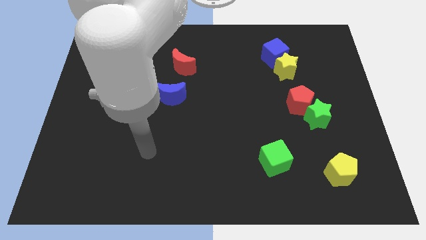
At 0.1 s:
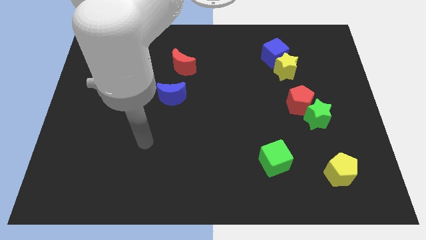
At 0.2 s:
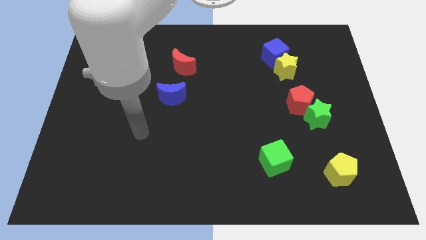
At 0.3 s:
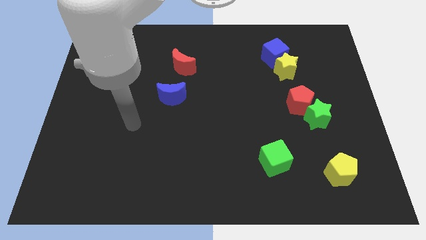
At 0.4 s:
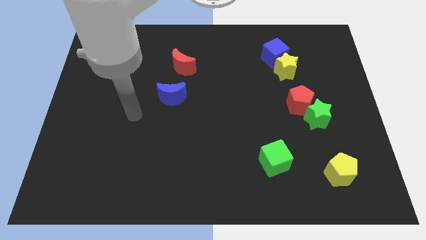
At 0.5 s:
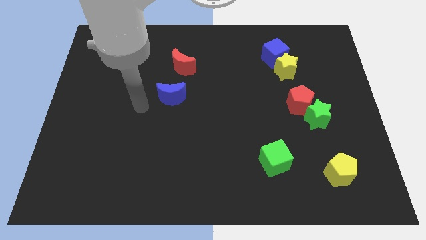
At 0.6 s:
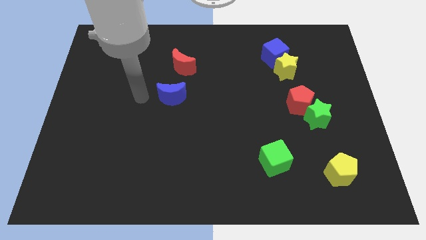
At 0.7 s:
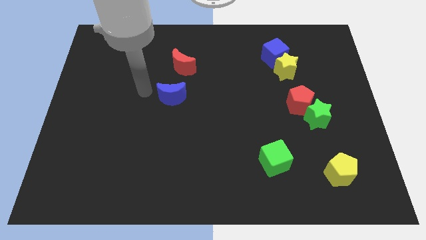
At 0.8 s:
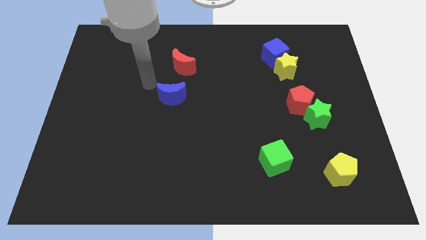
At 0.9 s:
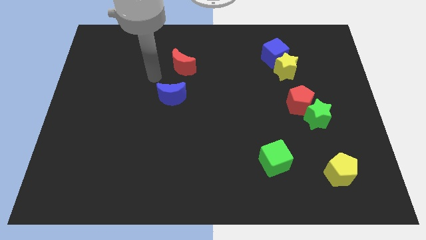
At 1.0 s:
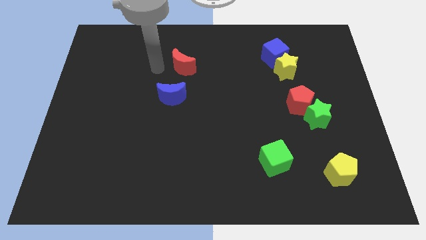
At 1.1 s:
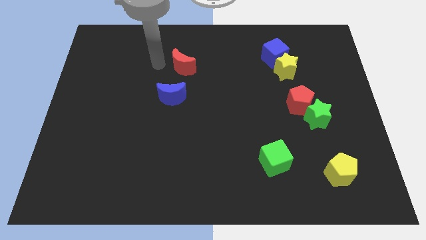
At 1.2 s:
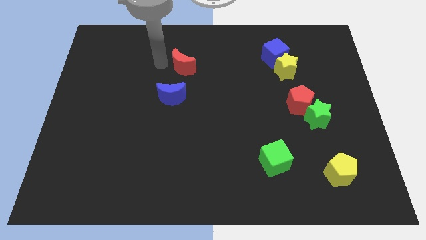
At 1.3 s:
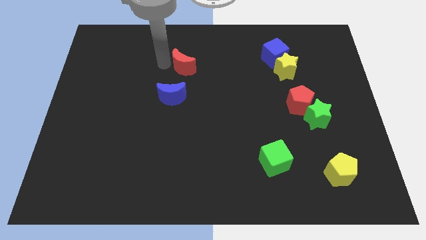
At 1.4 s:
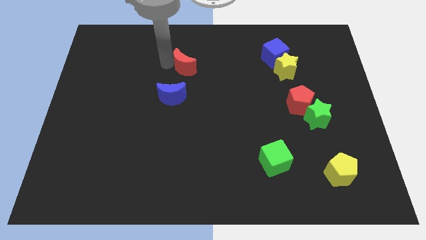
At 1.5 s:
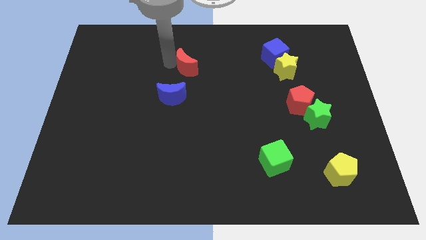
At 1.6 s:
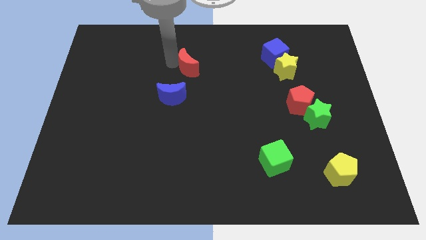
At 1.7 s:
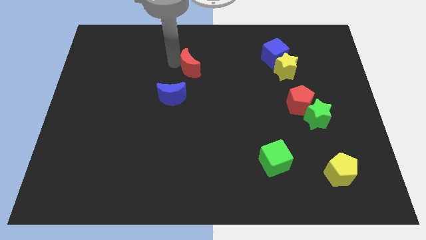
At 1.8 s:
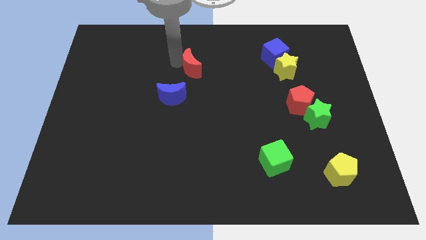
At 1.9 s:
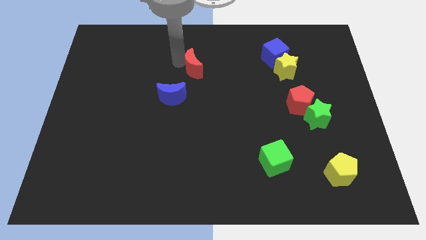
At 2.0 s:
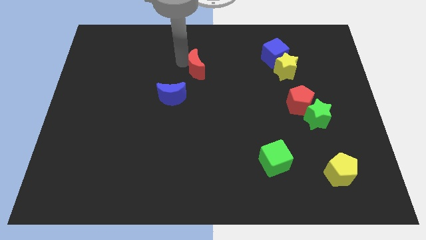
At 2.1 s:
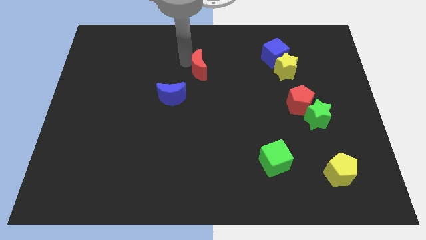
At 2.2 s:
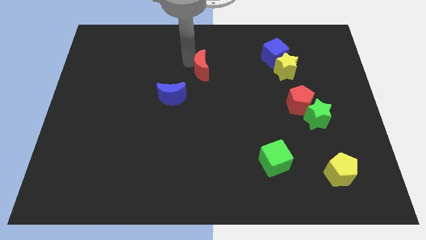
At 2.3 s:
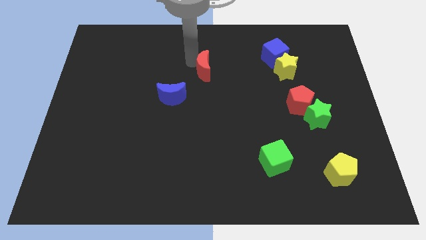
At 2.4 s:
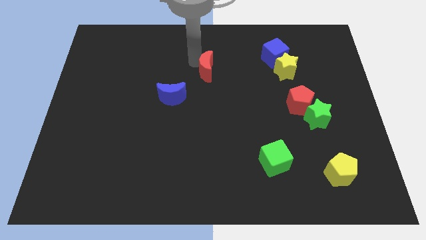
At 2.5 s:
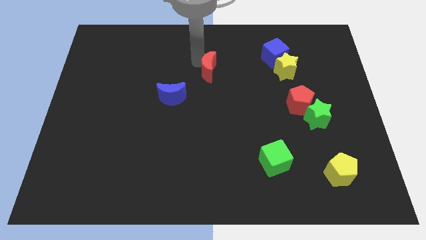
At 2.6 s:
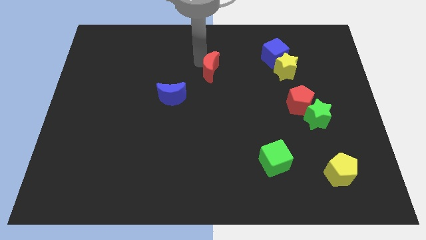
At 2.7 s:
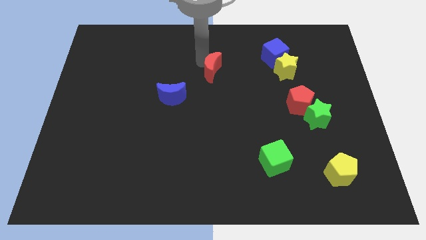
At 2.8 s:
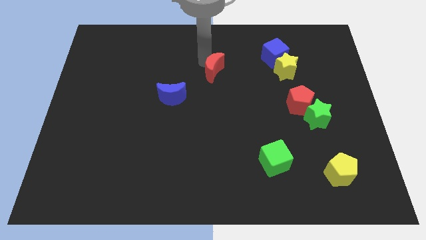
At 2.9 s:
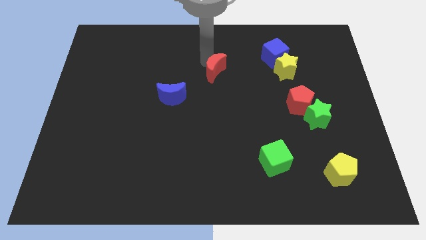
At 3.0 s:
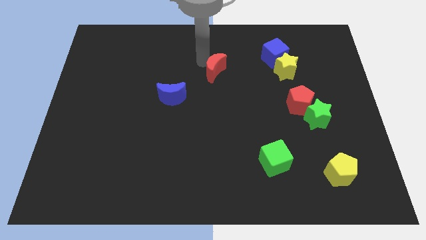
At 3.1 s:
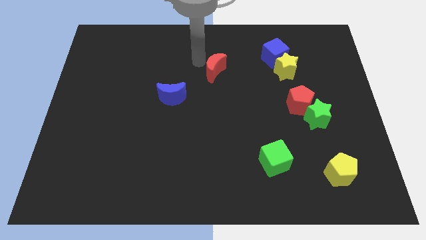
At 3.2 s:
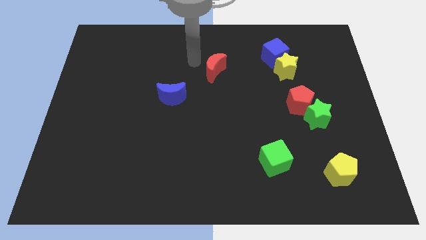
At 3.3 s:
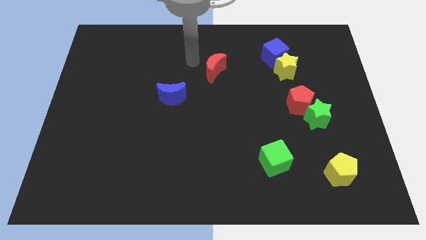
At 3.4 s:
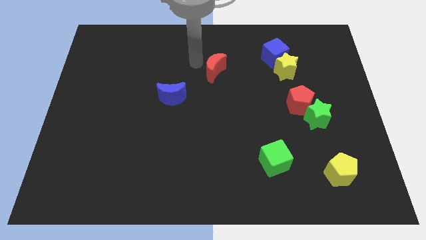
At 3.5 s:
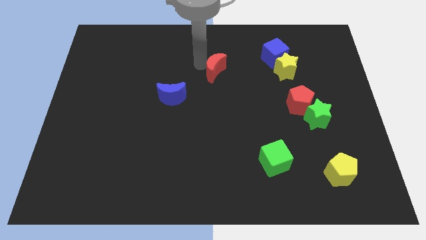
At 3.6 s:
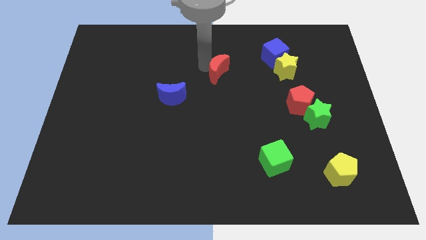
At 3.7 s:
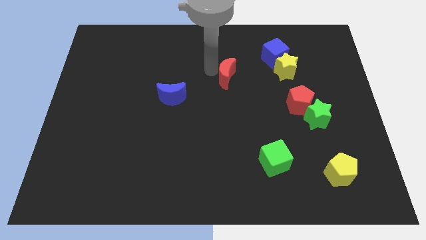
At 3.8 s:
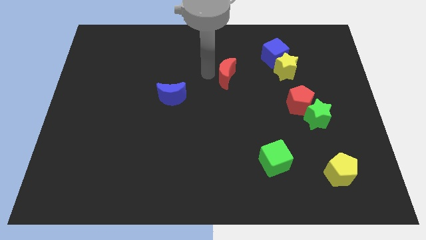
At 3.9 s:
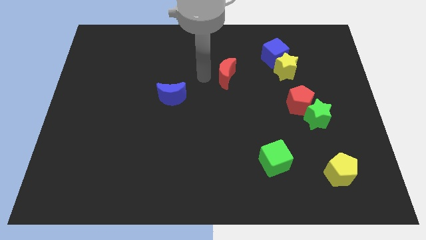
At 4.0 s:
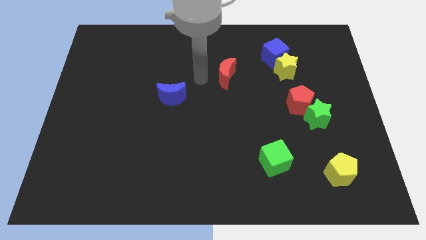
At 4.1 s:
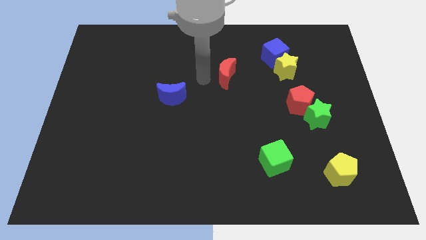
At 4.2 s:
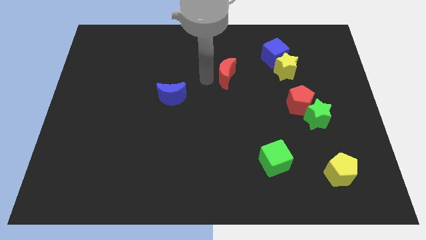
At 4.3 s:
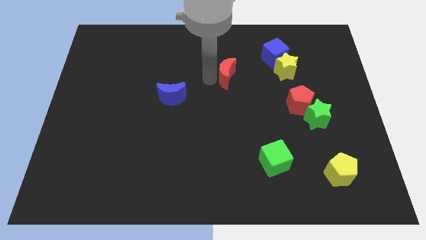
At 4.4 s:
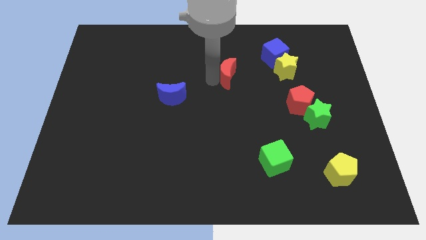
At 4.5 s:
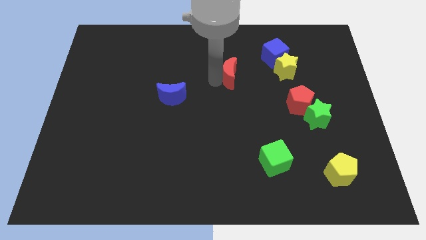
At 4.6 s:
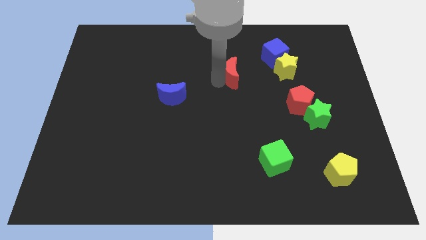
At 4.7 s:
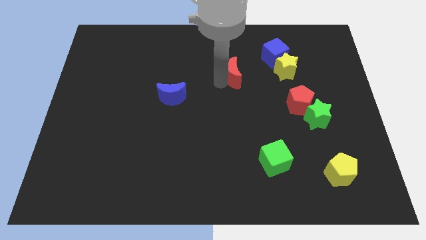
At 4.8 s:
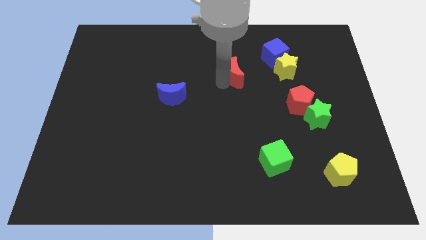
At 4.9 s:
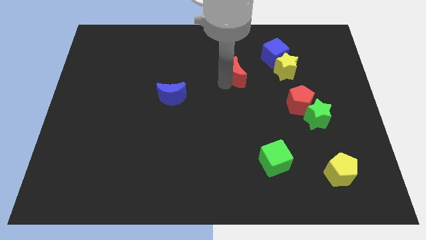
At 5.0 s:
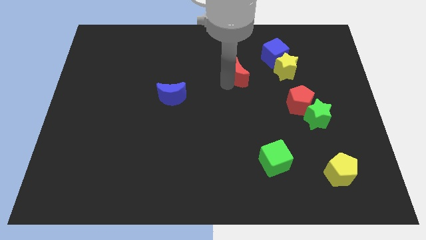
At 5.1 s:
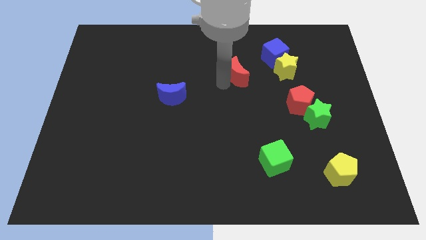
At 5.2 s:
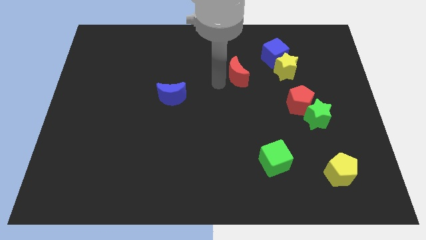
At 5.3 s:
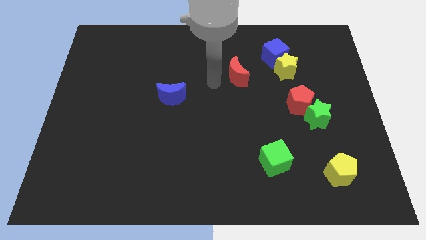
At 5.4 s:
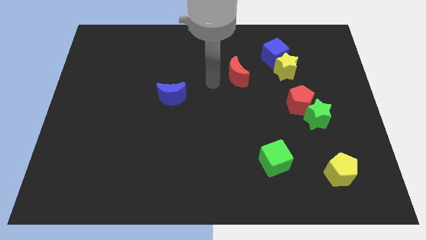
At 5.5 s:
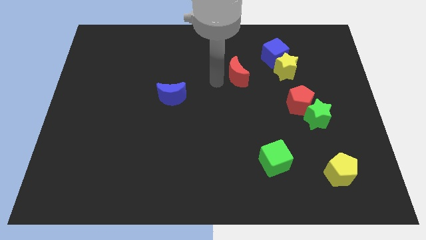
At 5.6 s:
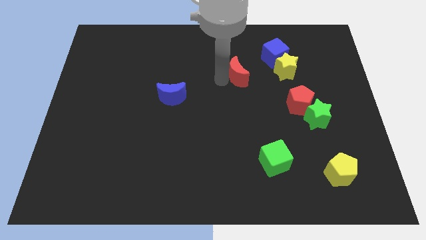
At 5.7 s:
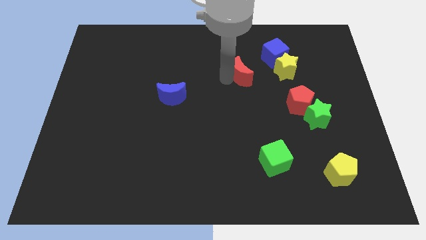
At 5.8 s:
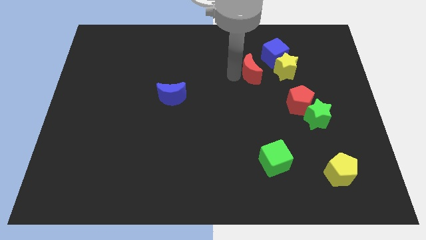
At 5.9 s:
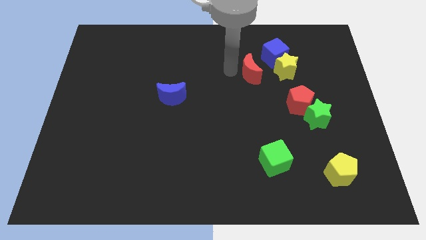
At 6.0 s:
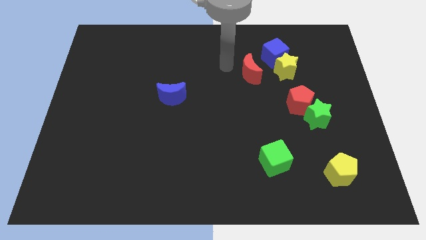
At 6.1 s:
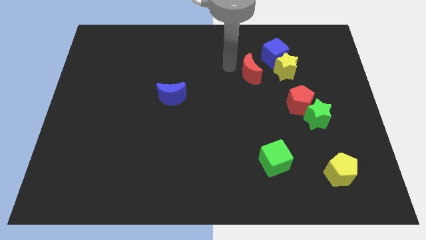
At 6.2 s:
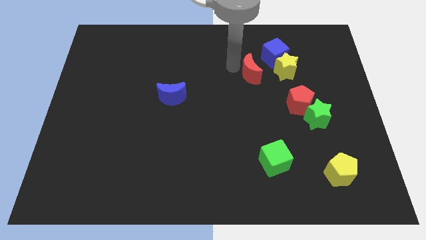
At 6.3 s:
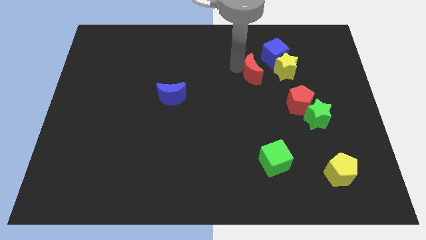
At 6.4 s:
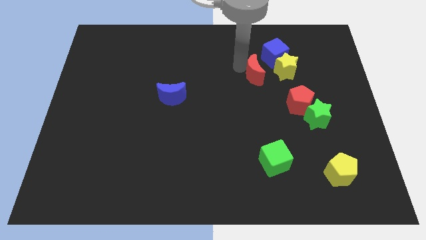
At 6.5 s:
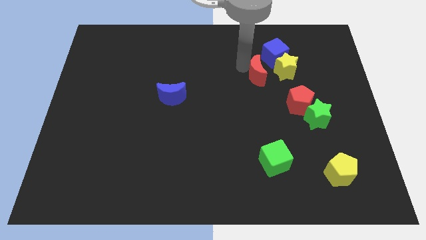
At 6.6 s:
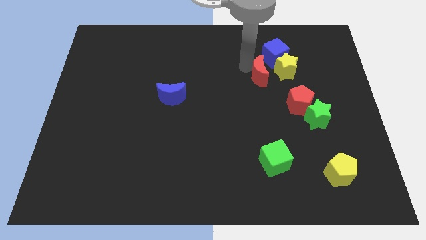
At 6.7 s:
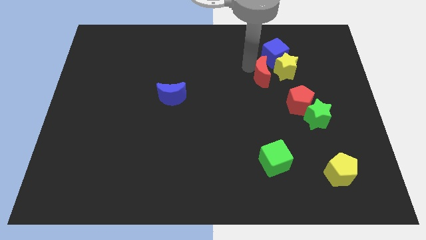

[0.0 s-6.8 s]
push the red moon to the right

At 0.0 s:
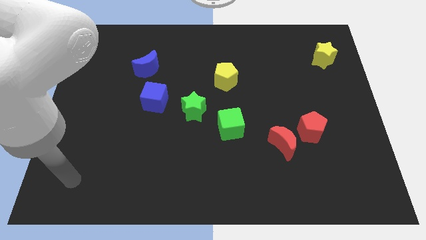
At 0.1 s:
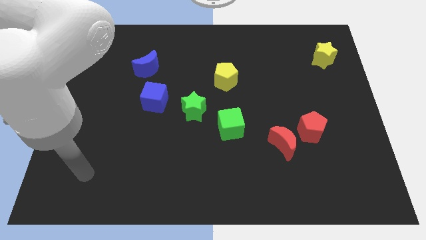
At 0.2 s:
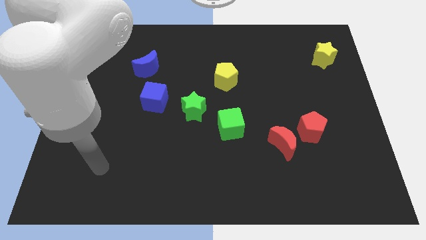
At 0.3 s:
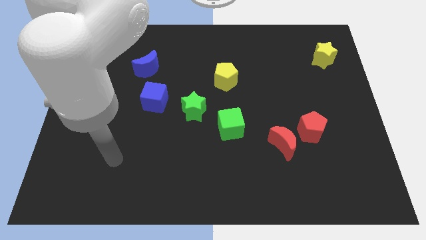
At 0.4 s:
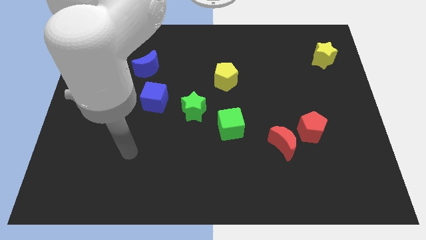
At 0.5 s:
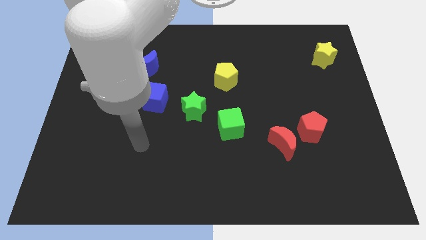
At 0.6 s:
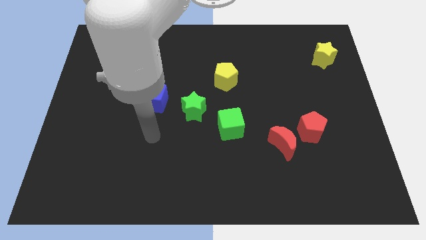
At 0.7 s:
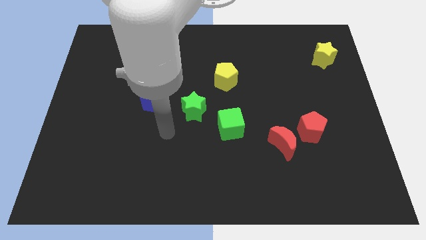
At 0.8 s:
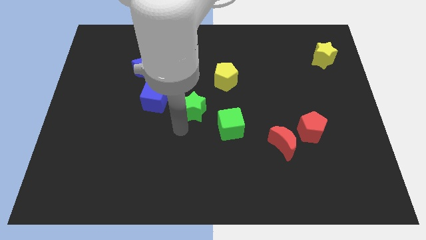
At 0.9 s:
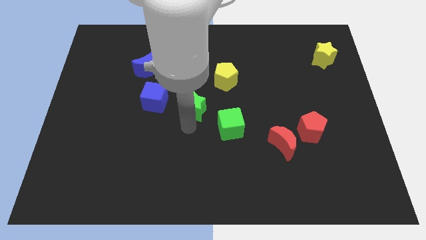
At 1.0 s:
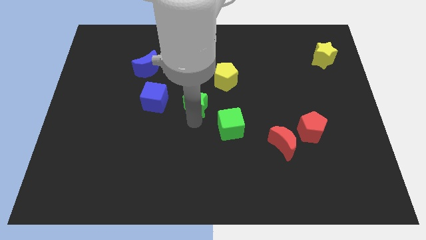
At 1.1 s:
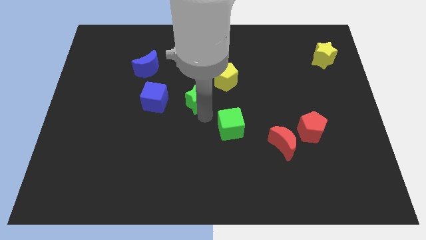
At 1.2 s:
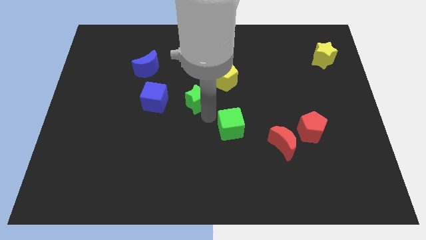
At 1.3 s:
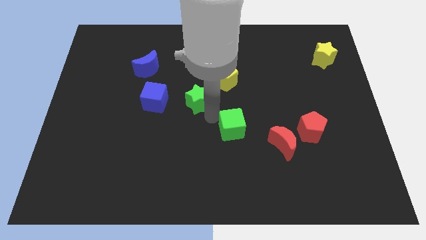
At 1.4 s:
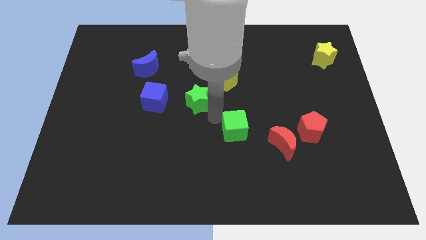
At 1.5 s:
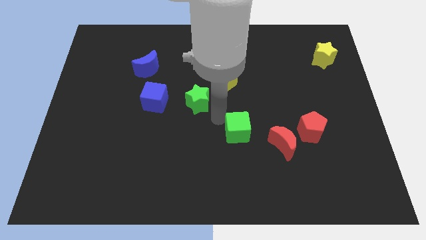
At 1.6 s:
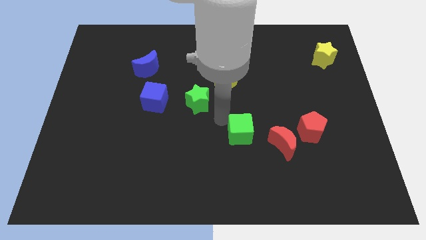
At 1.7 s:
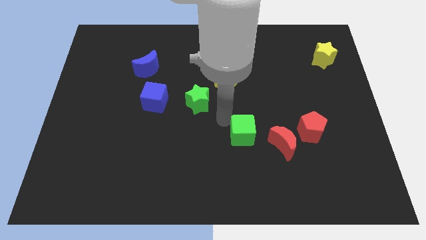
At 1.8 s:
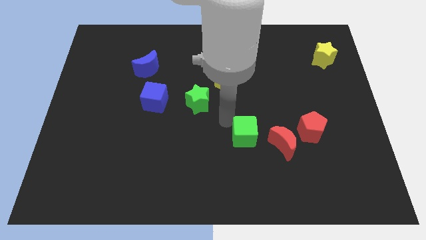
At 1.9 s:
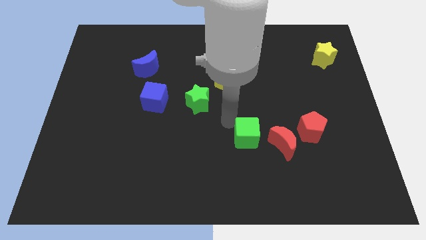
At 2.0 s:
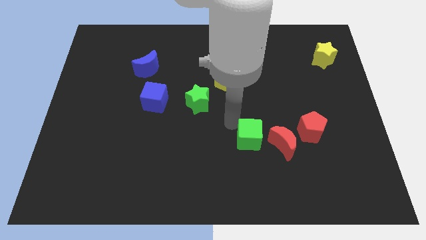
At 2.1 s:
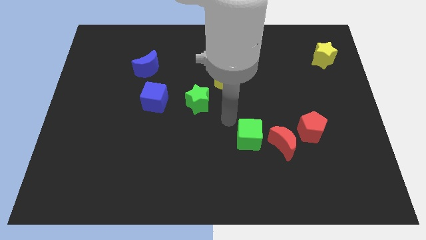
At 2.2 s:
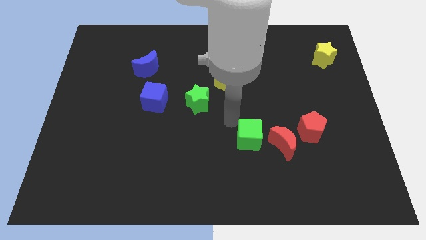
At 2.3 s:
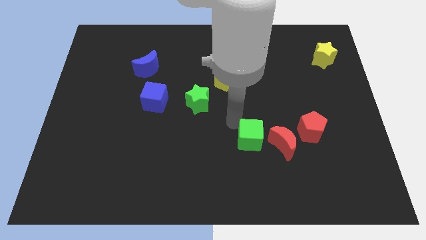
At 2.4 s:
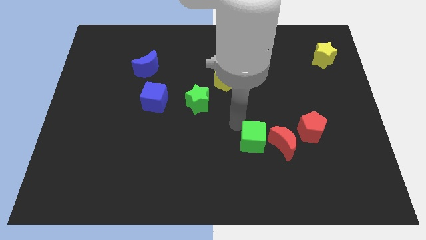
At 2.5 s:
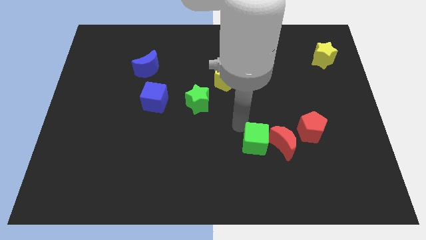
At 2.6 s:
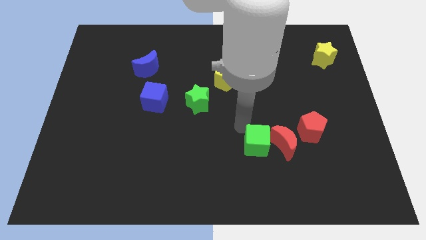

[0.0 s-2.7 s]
push the green cube diagonally down and to the right a little
